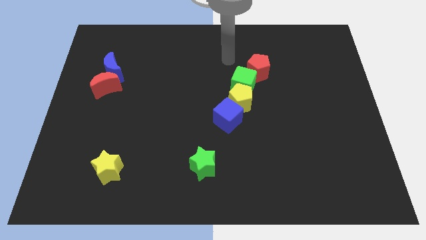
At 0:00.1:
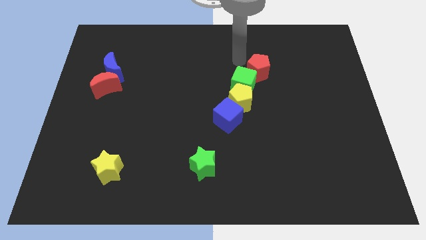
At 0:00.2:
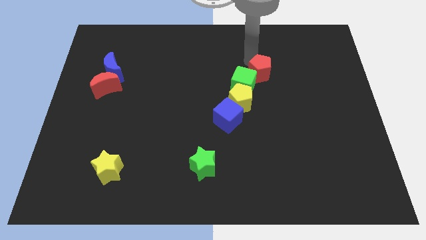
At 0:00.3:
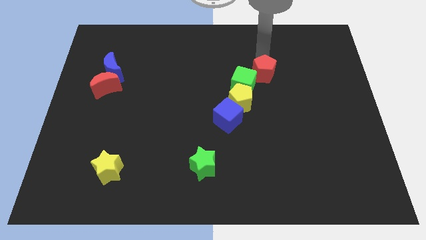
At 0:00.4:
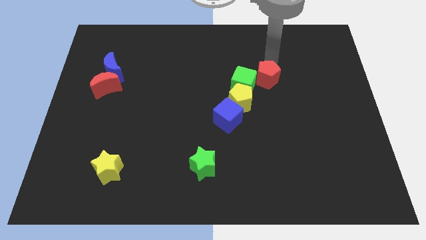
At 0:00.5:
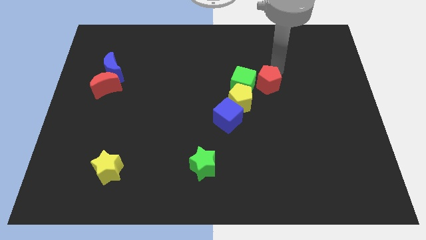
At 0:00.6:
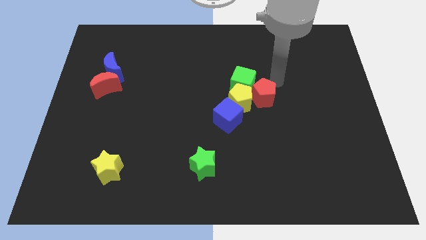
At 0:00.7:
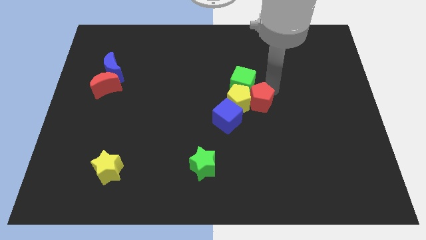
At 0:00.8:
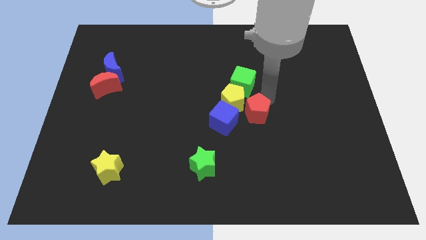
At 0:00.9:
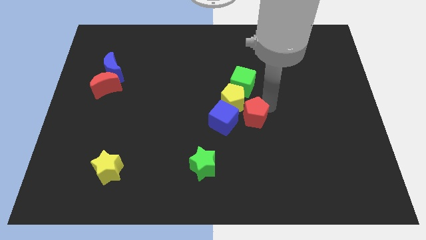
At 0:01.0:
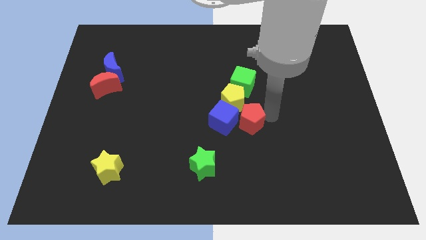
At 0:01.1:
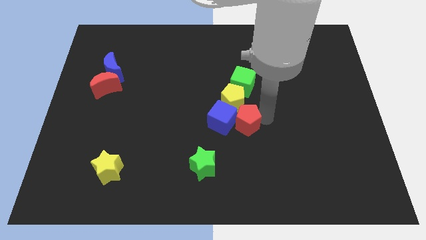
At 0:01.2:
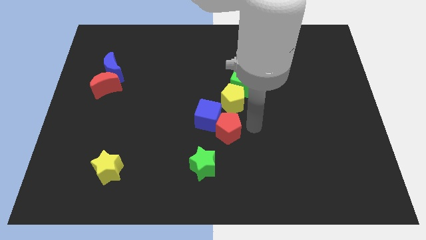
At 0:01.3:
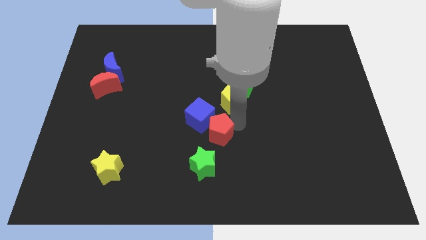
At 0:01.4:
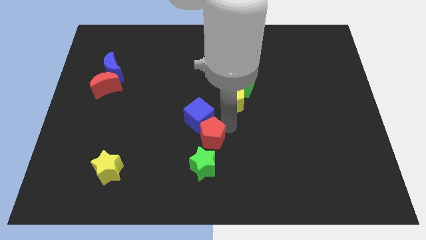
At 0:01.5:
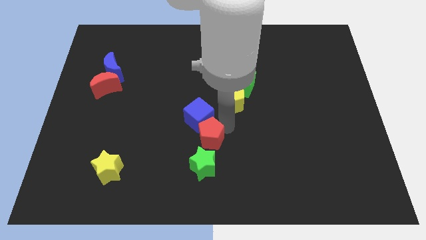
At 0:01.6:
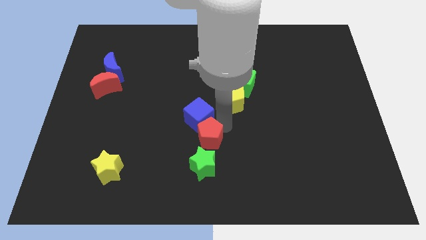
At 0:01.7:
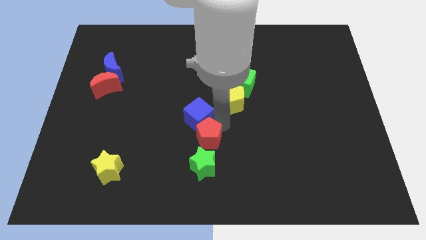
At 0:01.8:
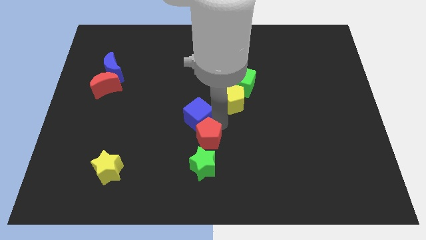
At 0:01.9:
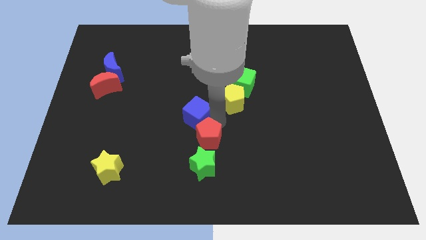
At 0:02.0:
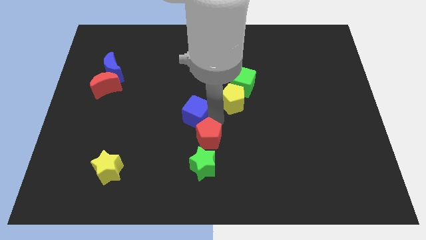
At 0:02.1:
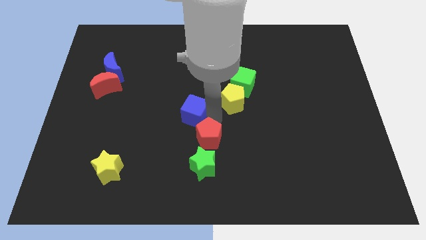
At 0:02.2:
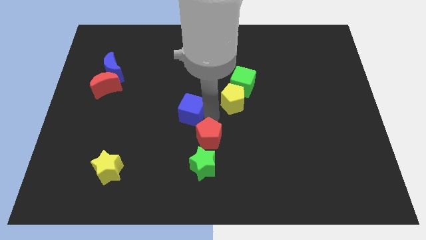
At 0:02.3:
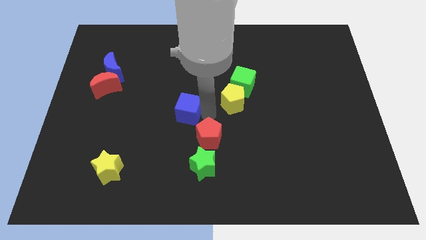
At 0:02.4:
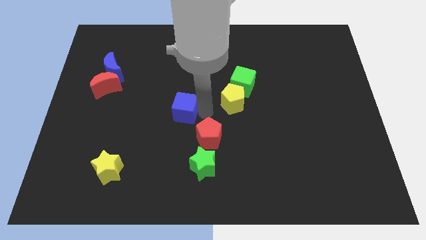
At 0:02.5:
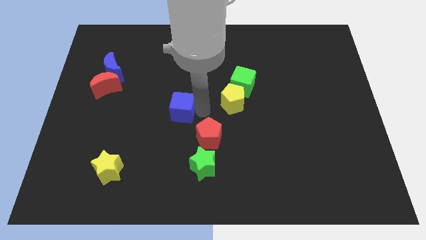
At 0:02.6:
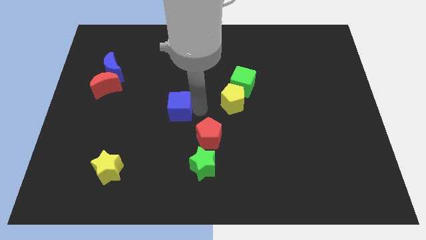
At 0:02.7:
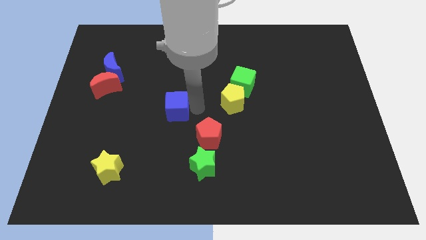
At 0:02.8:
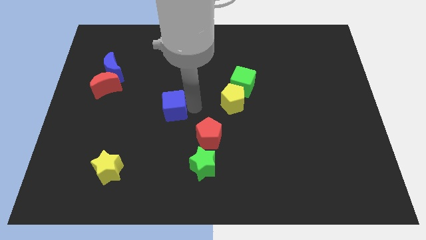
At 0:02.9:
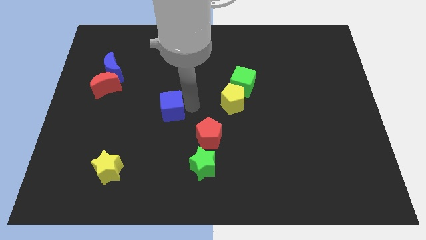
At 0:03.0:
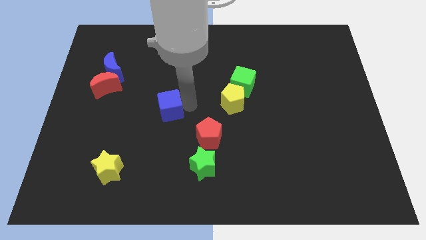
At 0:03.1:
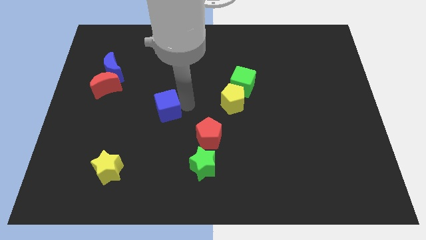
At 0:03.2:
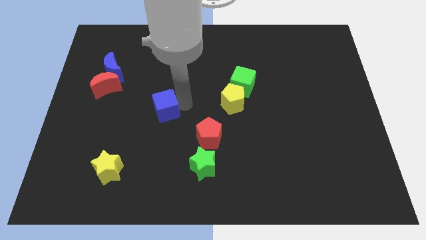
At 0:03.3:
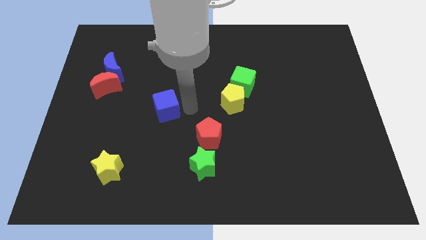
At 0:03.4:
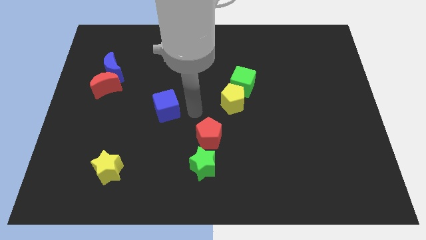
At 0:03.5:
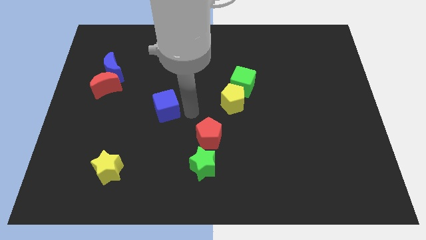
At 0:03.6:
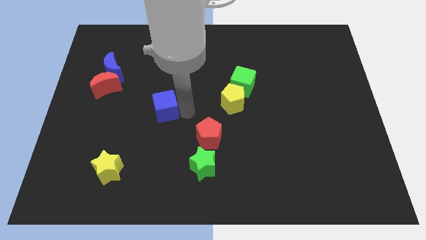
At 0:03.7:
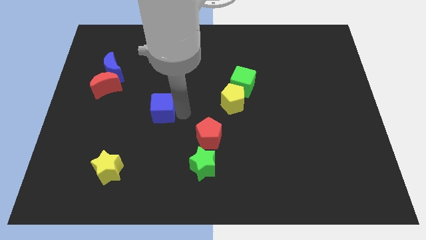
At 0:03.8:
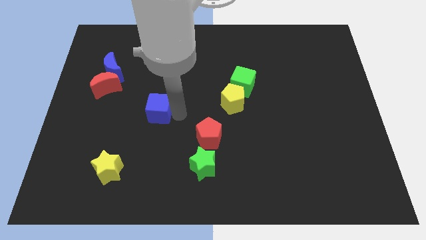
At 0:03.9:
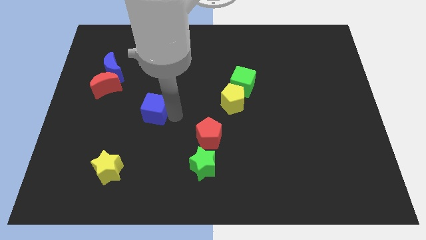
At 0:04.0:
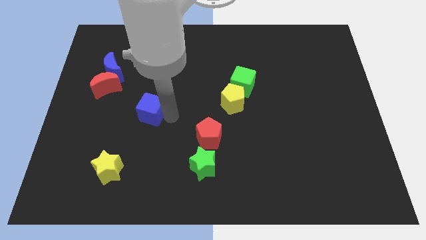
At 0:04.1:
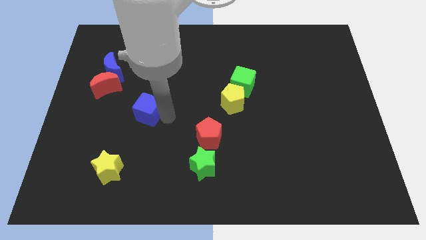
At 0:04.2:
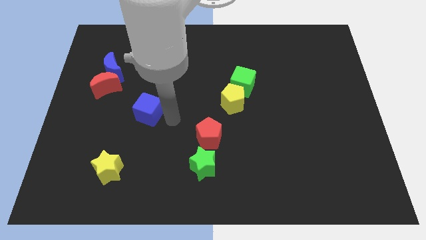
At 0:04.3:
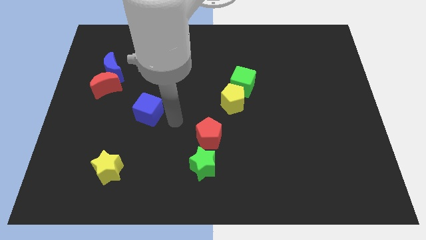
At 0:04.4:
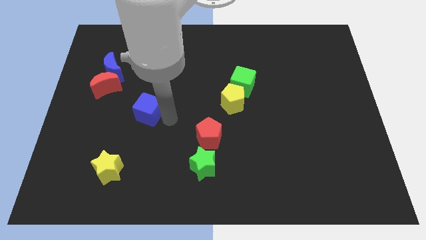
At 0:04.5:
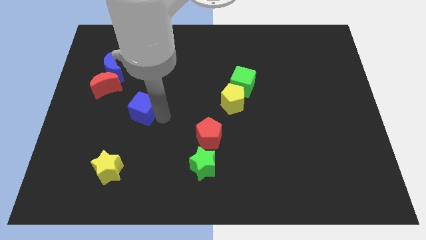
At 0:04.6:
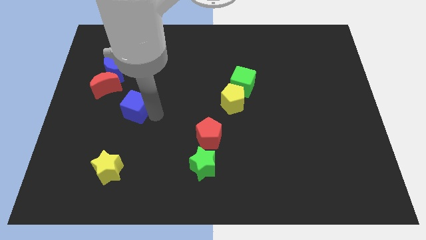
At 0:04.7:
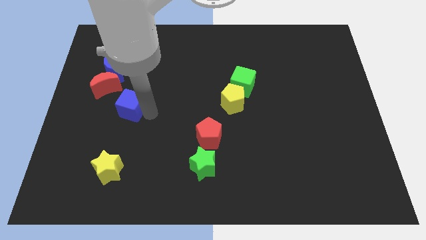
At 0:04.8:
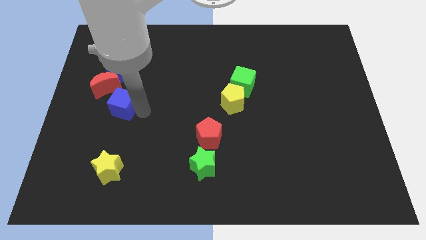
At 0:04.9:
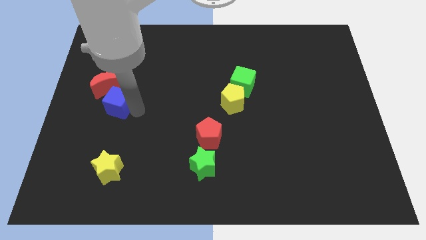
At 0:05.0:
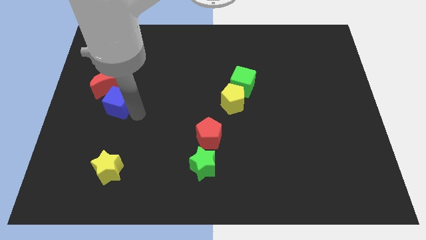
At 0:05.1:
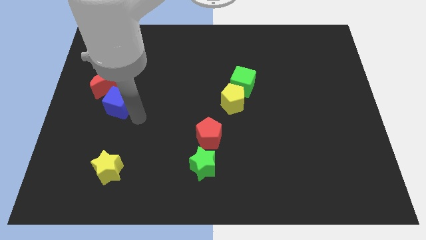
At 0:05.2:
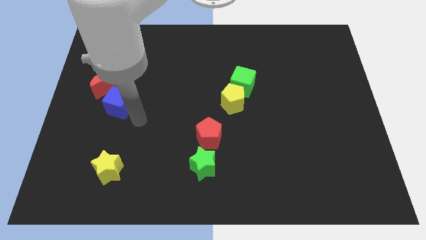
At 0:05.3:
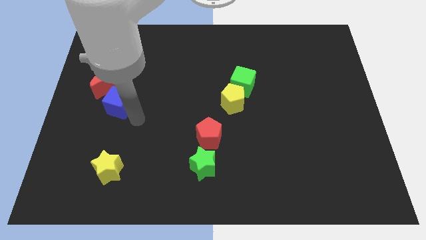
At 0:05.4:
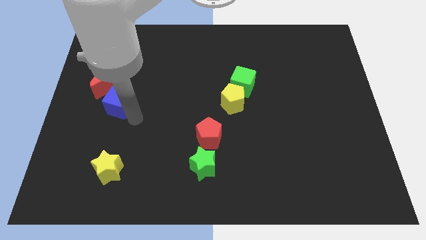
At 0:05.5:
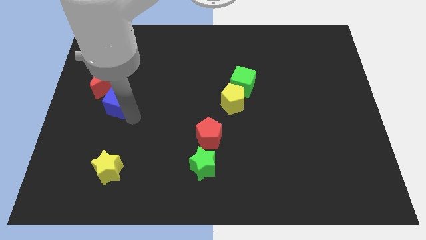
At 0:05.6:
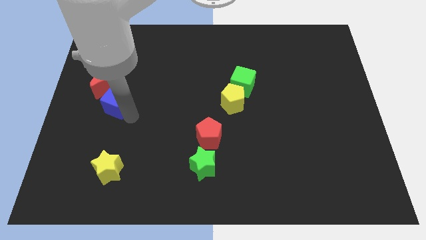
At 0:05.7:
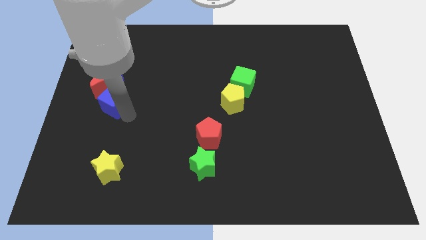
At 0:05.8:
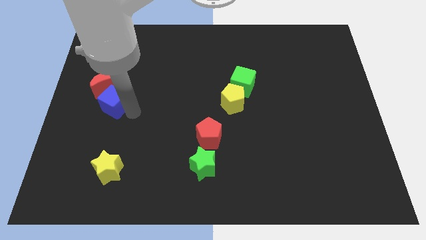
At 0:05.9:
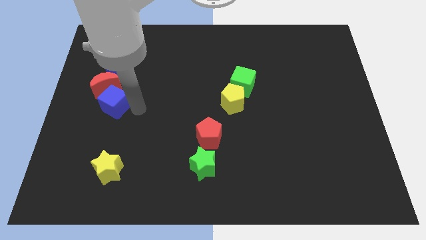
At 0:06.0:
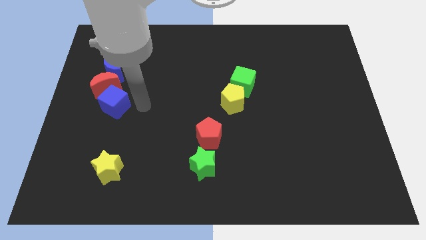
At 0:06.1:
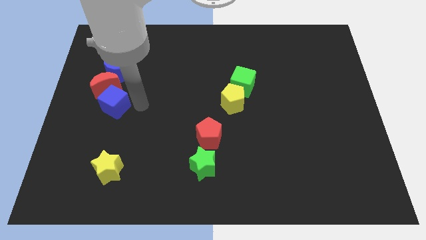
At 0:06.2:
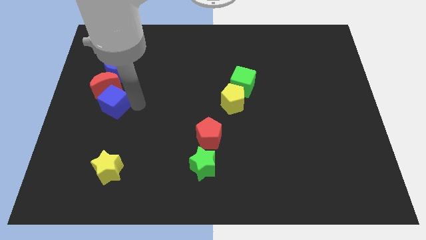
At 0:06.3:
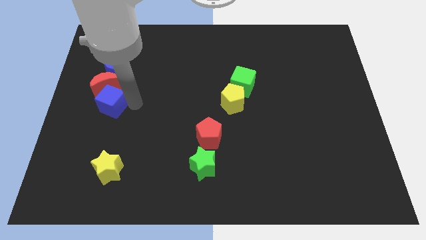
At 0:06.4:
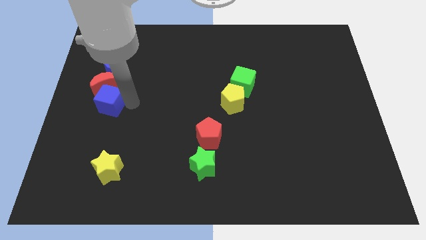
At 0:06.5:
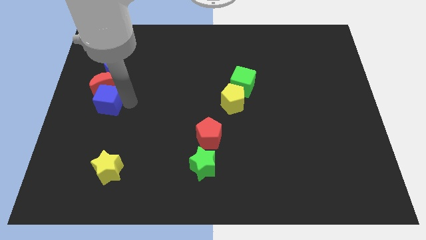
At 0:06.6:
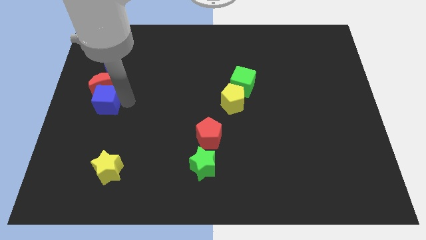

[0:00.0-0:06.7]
move the blue cube to the left side

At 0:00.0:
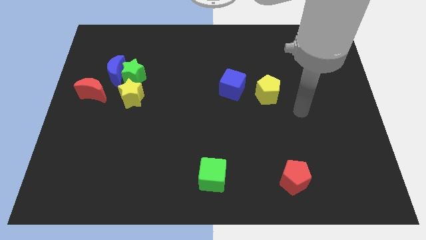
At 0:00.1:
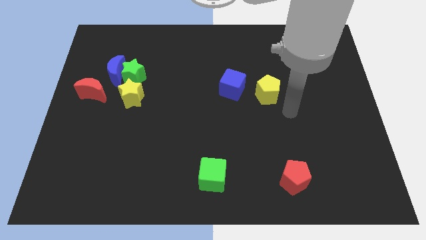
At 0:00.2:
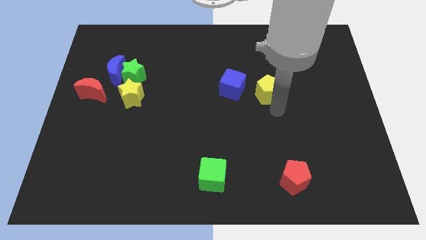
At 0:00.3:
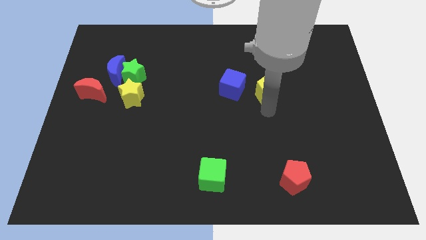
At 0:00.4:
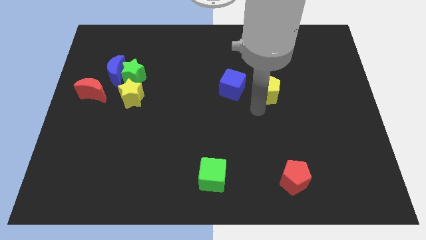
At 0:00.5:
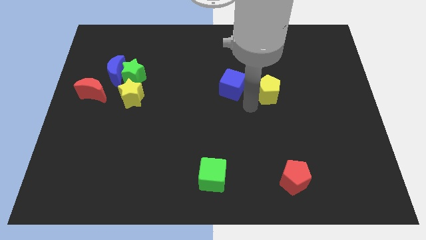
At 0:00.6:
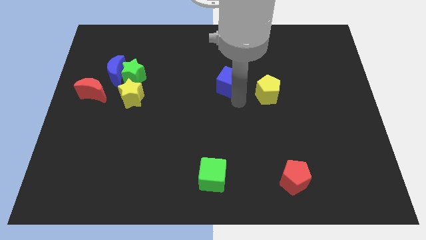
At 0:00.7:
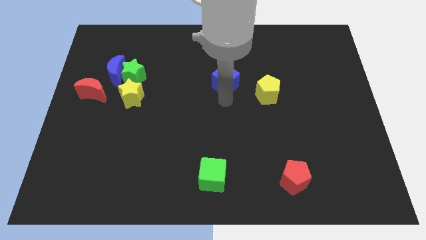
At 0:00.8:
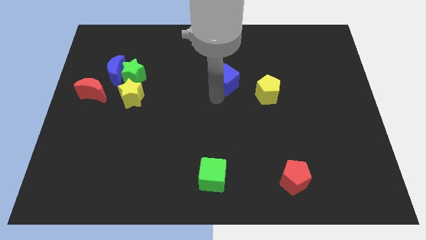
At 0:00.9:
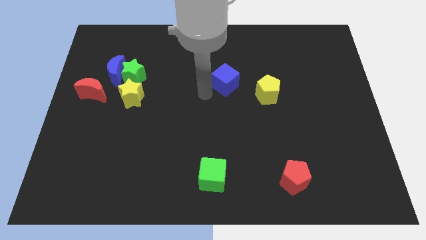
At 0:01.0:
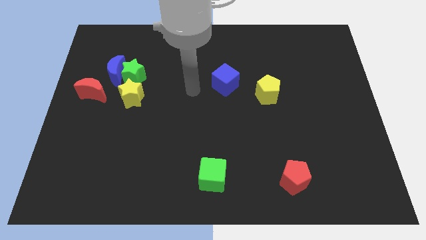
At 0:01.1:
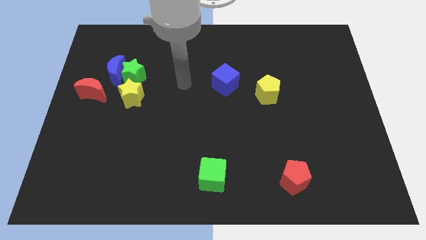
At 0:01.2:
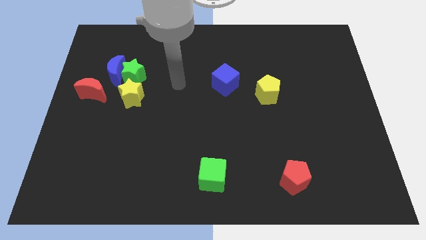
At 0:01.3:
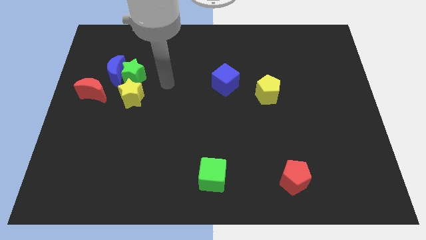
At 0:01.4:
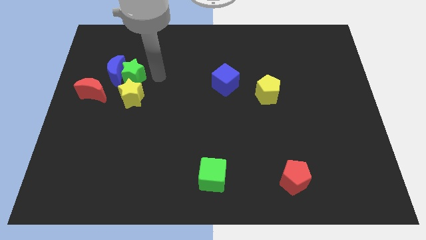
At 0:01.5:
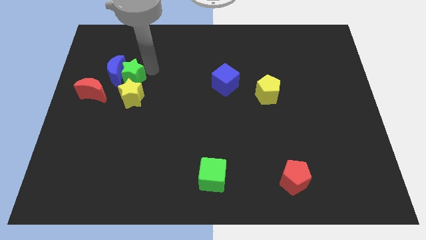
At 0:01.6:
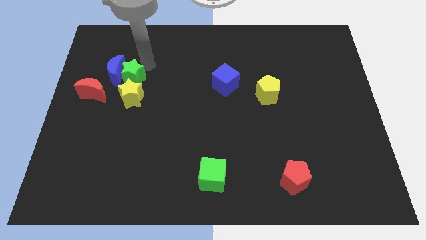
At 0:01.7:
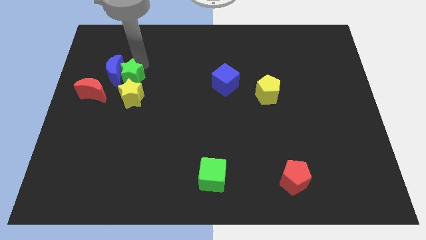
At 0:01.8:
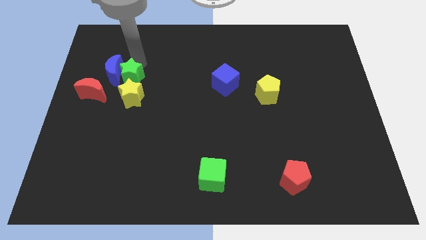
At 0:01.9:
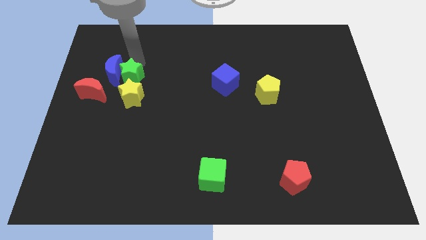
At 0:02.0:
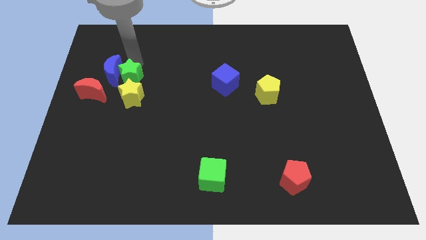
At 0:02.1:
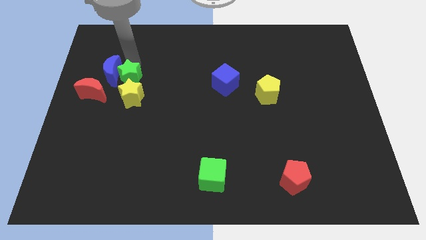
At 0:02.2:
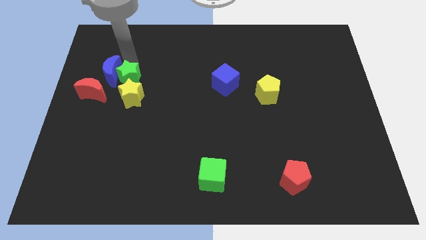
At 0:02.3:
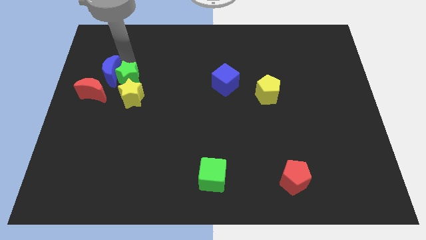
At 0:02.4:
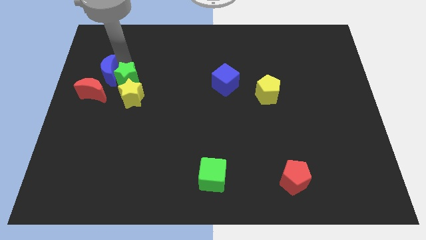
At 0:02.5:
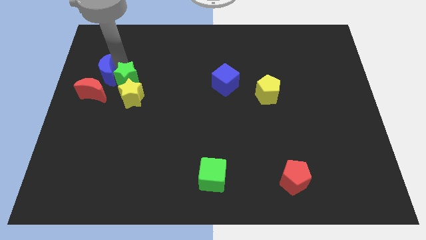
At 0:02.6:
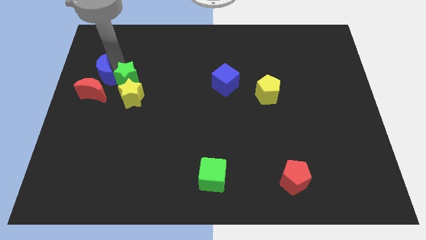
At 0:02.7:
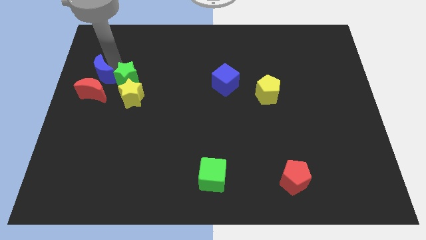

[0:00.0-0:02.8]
push the blue moon to the left side
